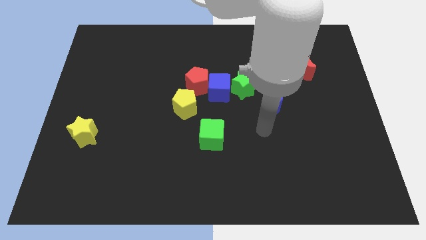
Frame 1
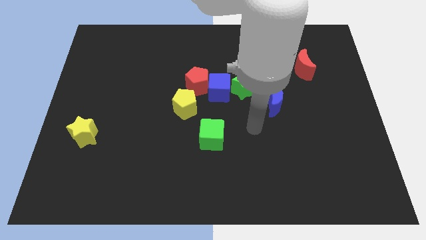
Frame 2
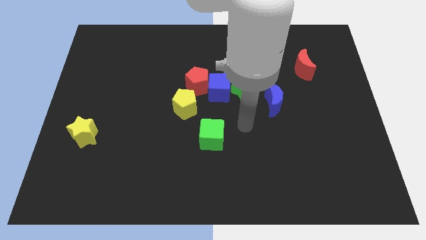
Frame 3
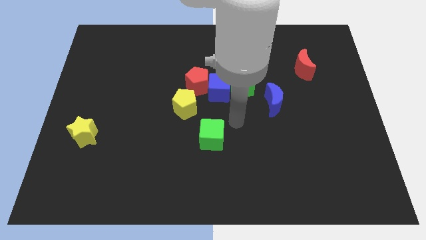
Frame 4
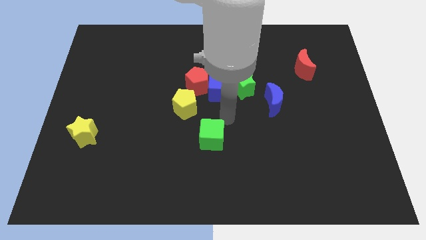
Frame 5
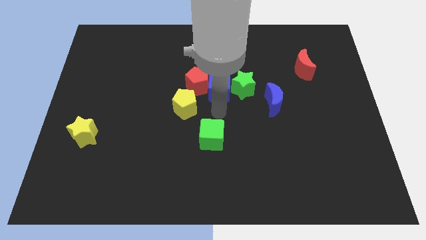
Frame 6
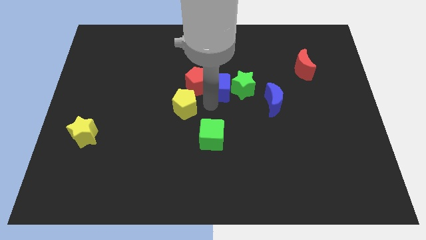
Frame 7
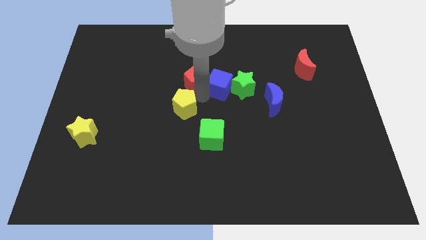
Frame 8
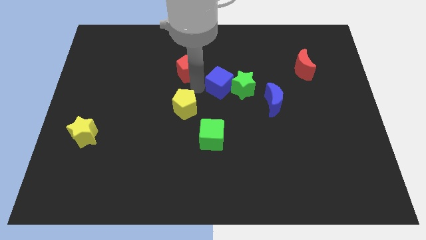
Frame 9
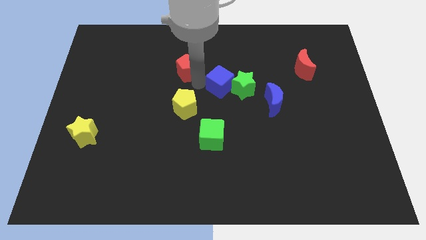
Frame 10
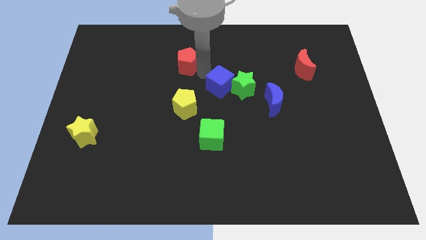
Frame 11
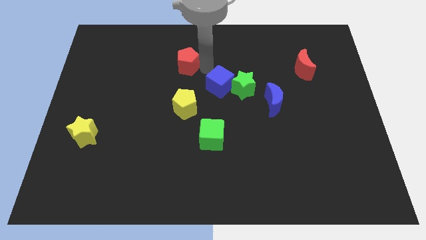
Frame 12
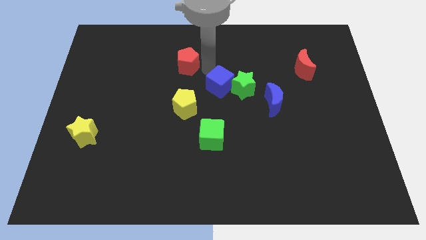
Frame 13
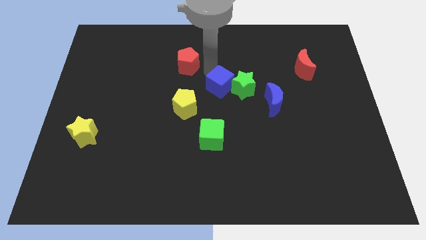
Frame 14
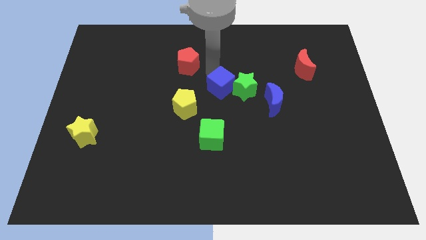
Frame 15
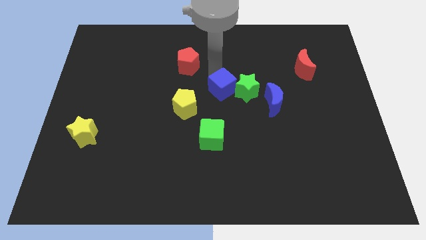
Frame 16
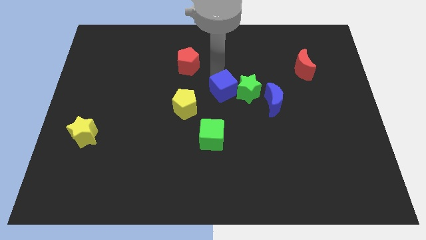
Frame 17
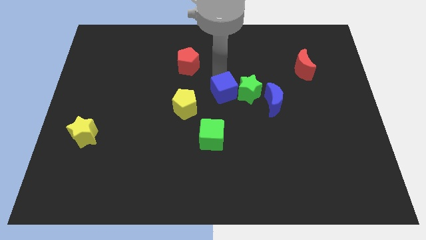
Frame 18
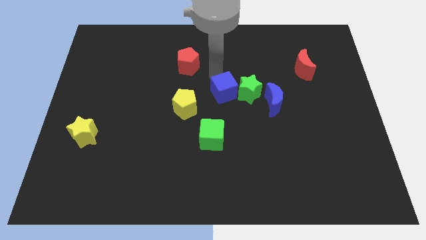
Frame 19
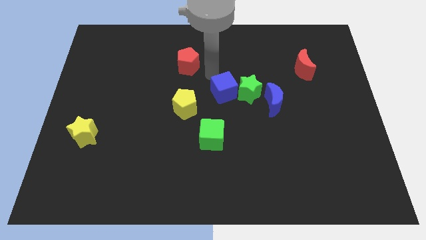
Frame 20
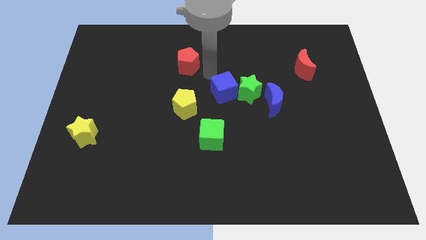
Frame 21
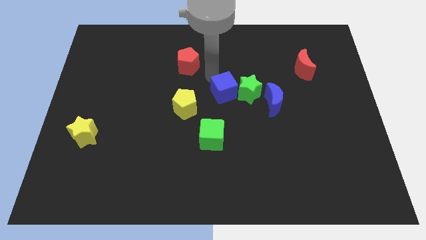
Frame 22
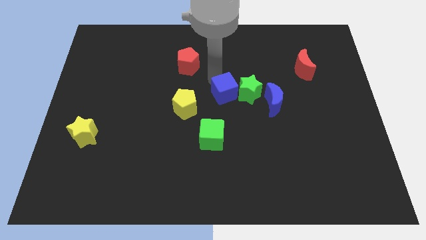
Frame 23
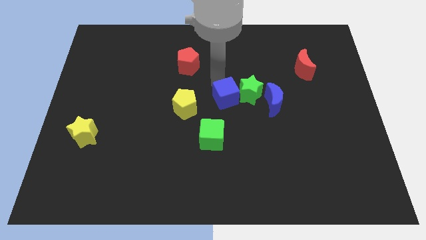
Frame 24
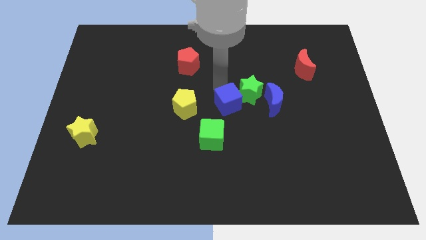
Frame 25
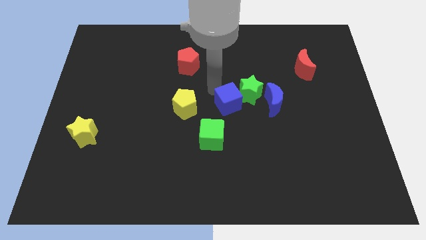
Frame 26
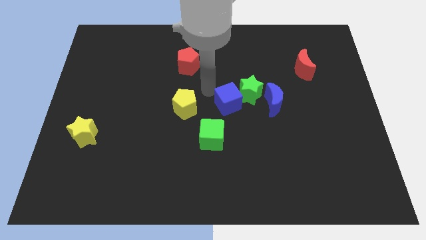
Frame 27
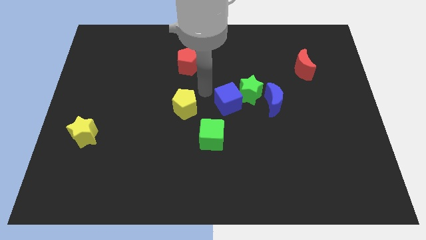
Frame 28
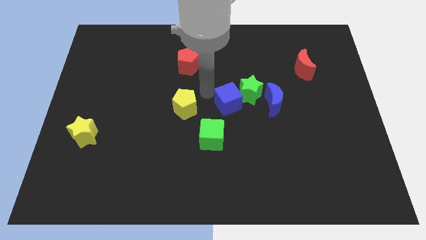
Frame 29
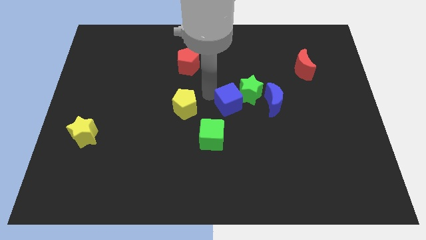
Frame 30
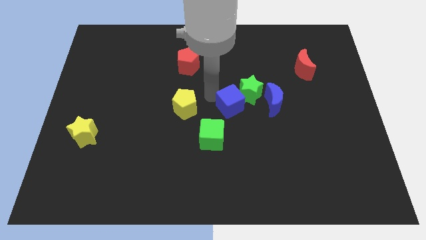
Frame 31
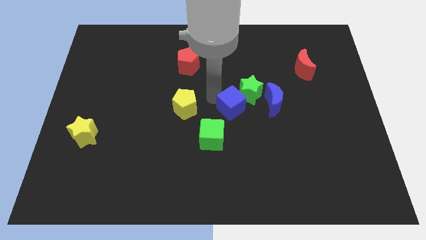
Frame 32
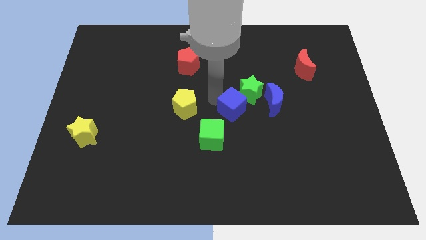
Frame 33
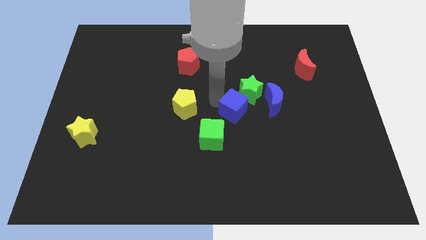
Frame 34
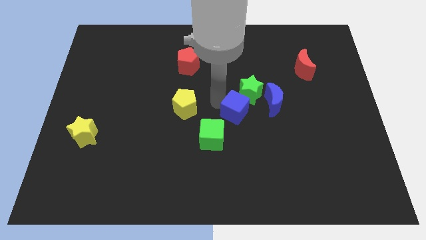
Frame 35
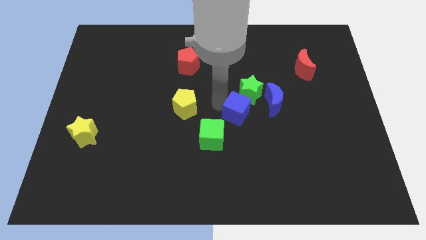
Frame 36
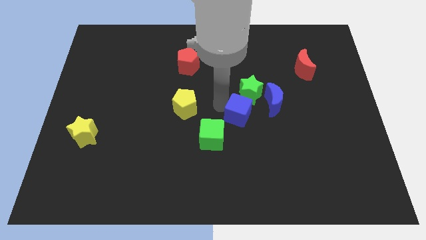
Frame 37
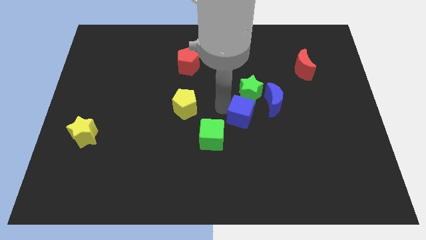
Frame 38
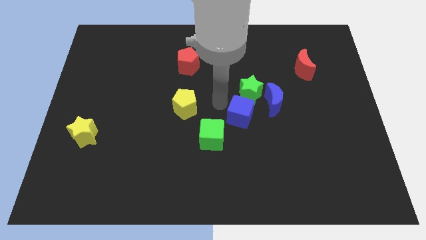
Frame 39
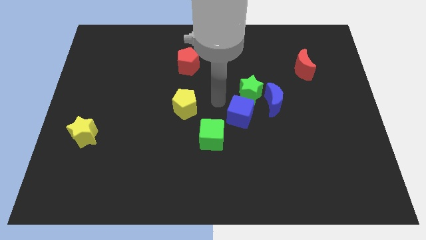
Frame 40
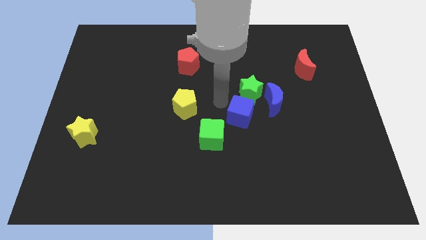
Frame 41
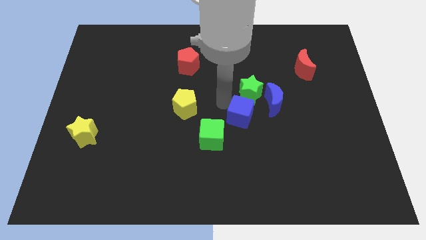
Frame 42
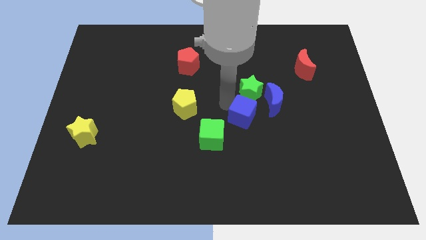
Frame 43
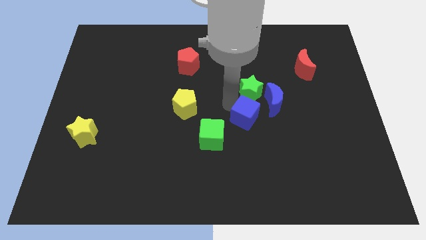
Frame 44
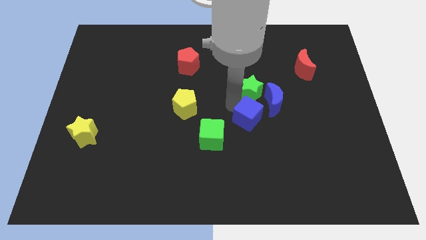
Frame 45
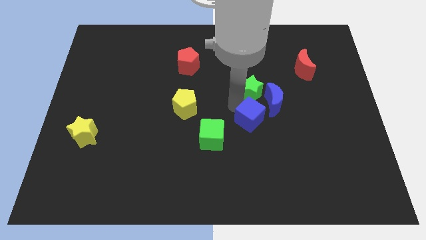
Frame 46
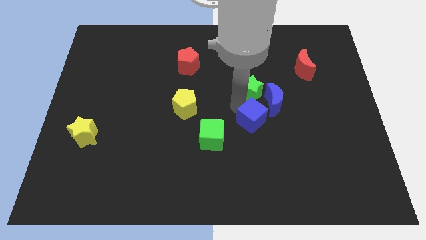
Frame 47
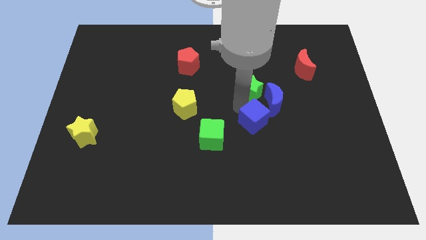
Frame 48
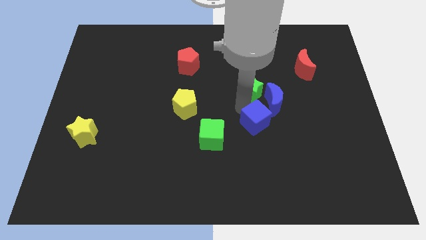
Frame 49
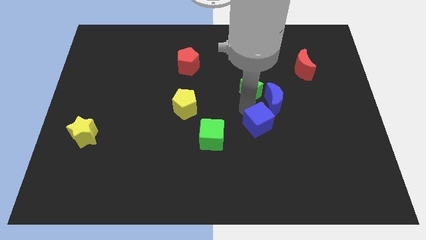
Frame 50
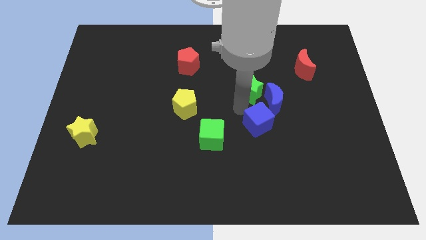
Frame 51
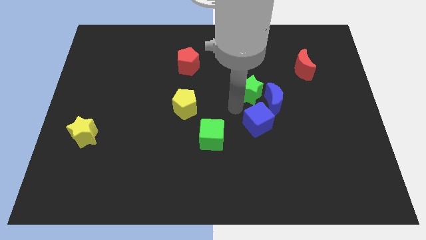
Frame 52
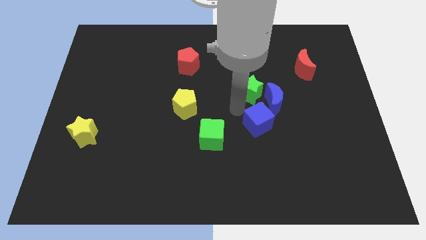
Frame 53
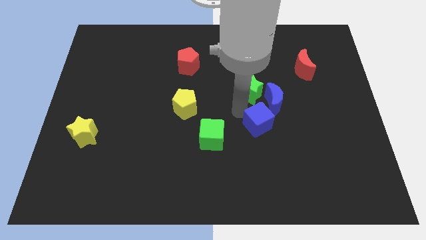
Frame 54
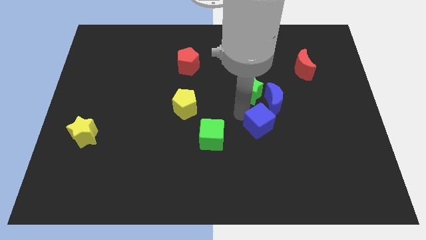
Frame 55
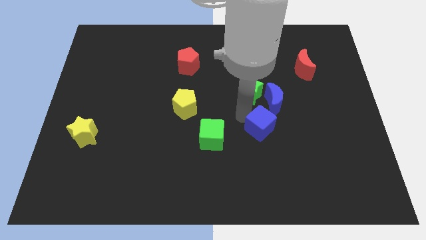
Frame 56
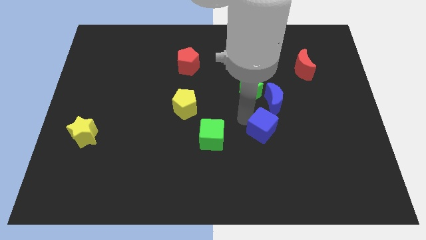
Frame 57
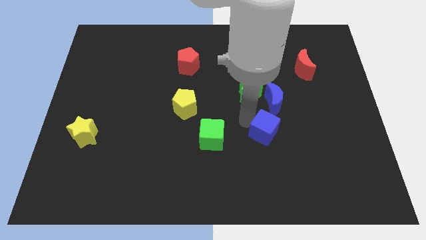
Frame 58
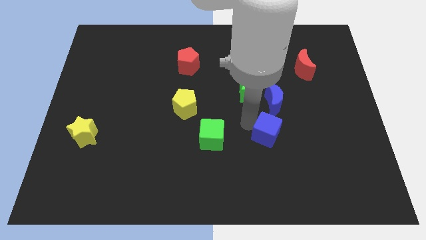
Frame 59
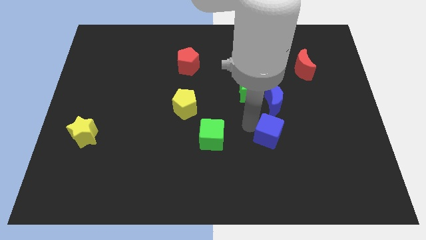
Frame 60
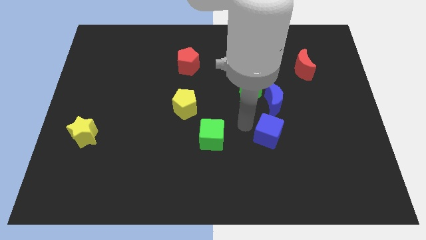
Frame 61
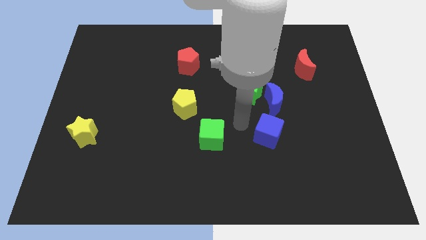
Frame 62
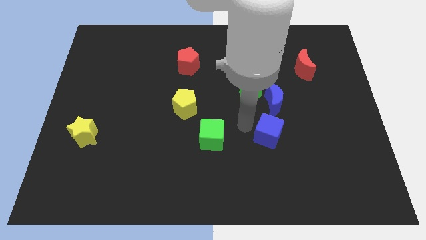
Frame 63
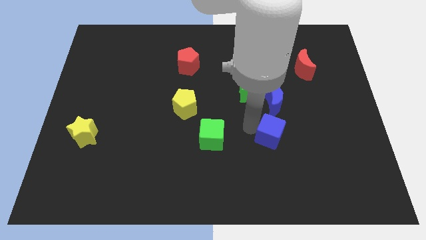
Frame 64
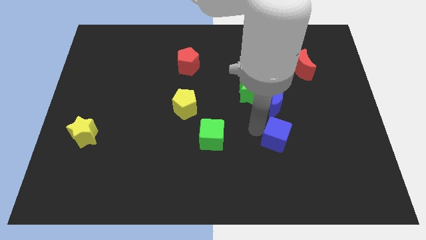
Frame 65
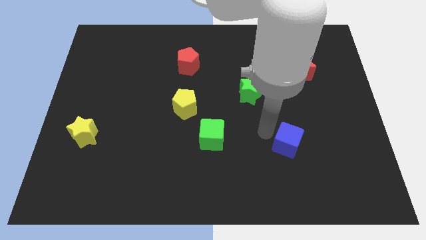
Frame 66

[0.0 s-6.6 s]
move the blue cube down and to the right diagonally

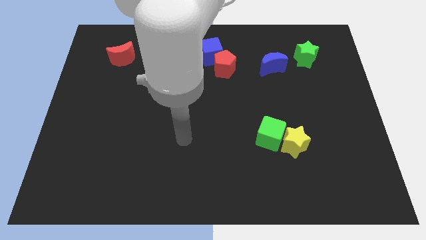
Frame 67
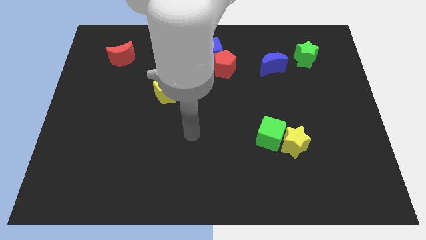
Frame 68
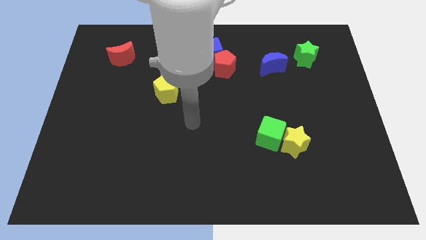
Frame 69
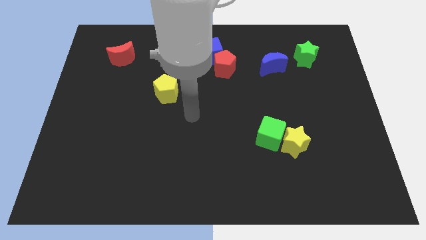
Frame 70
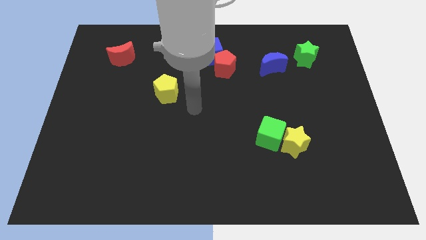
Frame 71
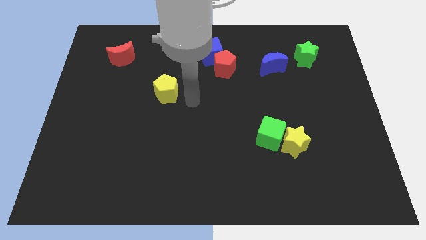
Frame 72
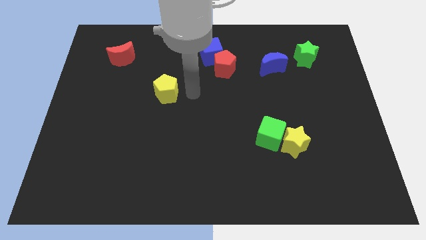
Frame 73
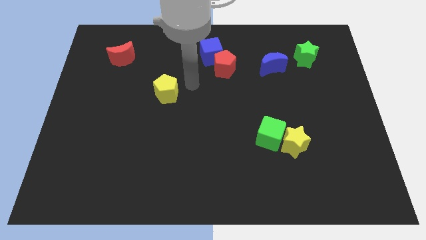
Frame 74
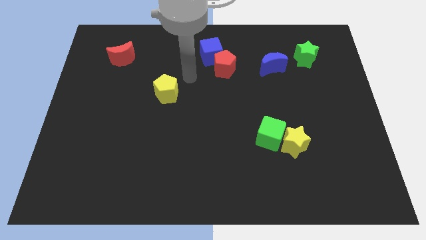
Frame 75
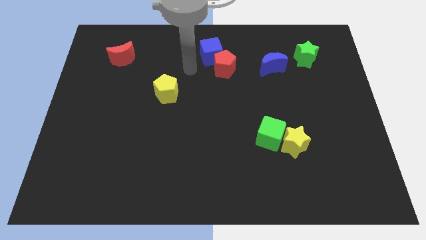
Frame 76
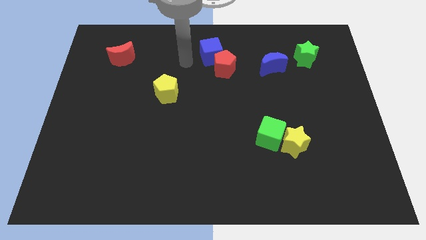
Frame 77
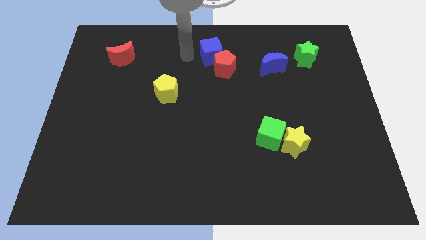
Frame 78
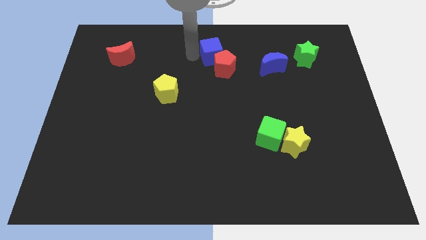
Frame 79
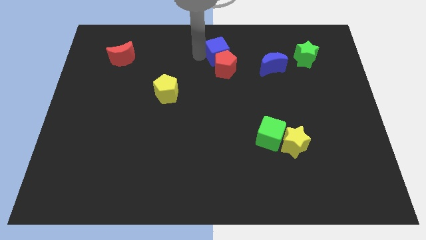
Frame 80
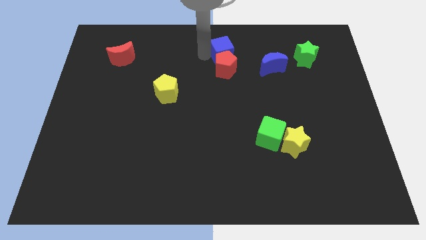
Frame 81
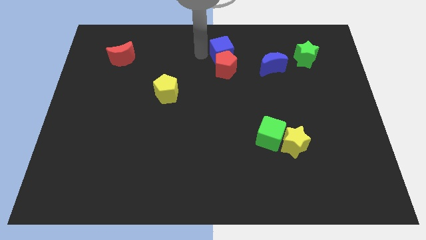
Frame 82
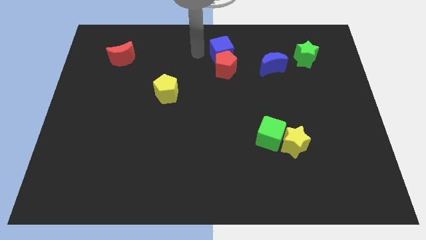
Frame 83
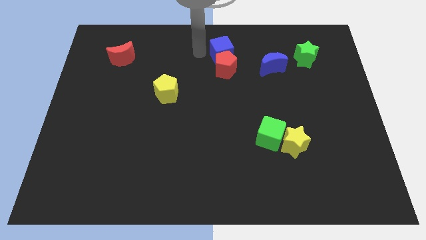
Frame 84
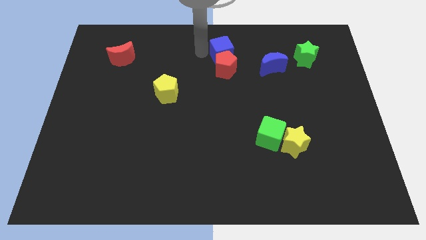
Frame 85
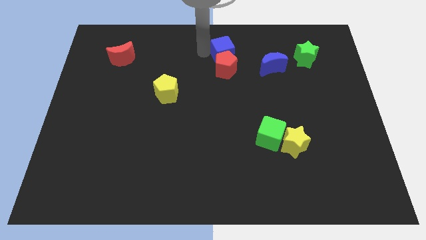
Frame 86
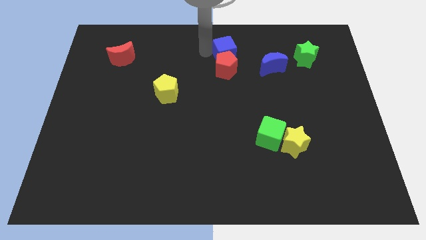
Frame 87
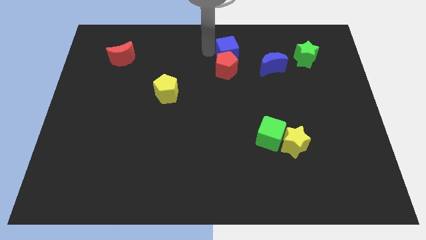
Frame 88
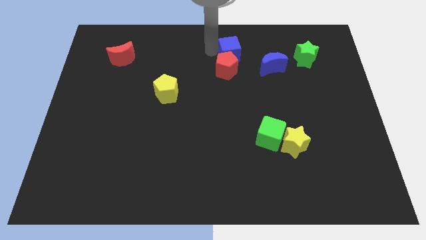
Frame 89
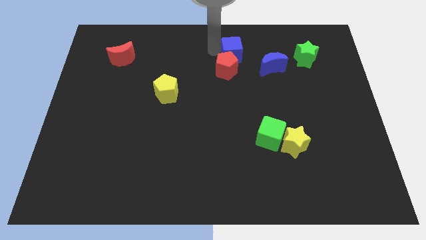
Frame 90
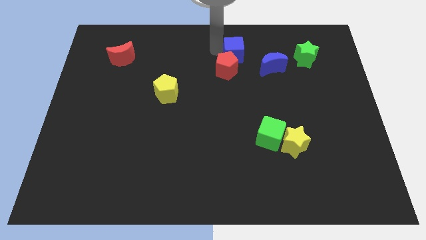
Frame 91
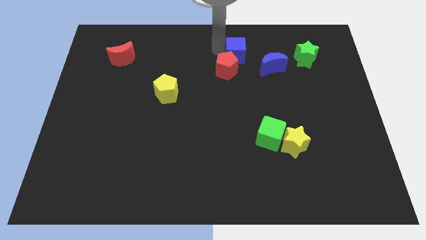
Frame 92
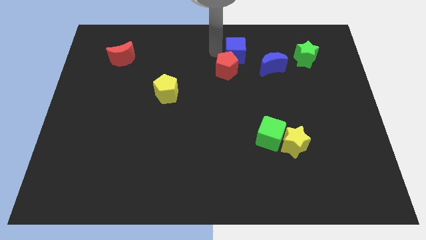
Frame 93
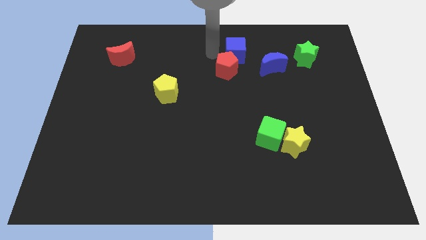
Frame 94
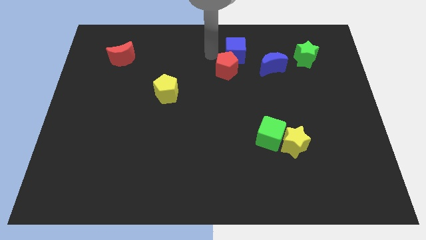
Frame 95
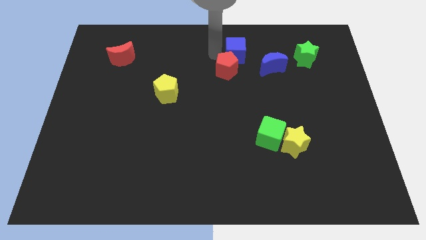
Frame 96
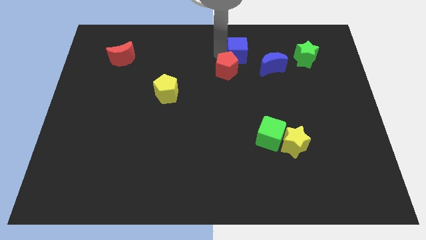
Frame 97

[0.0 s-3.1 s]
slide the blue cube a little bit right
